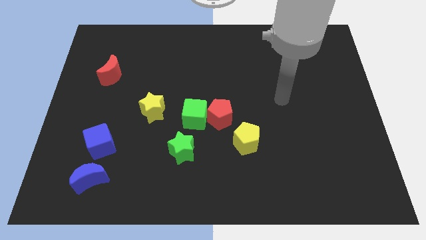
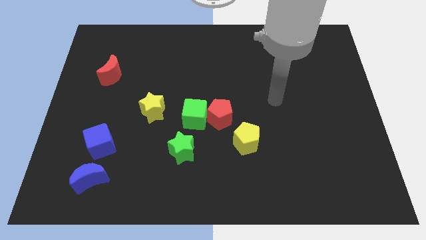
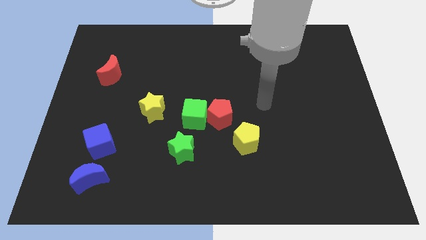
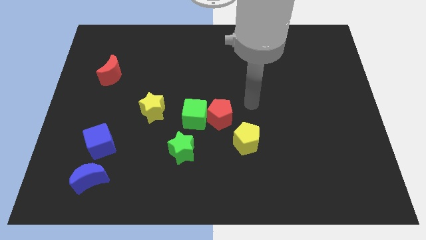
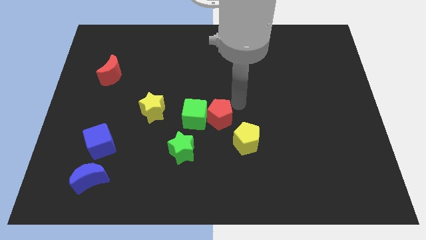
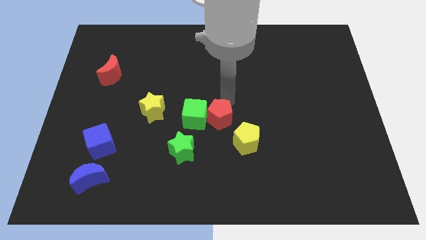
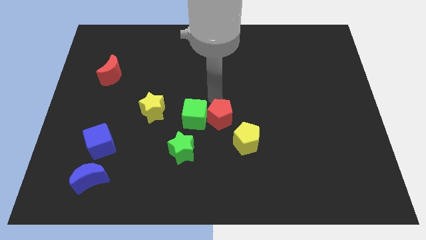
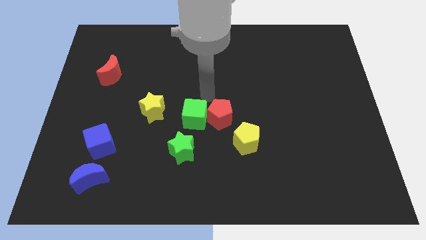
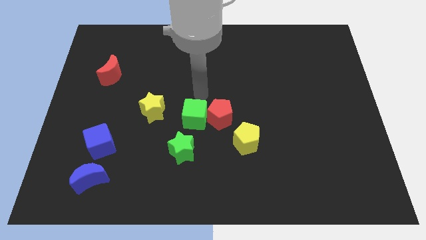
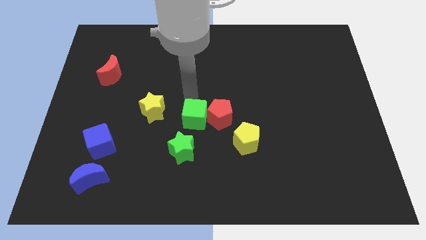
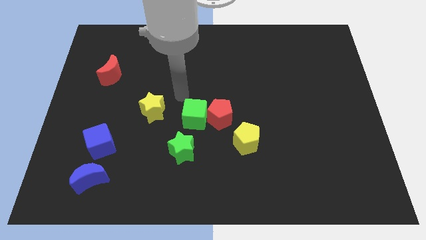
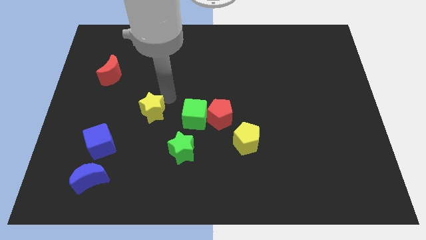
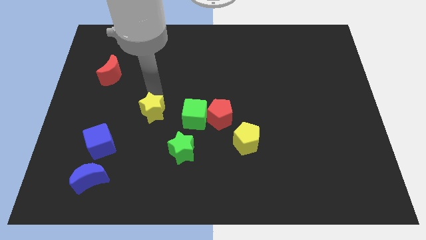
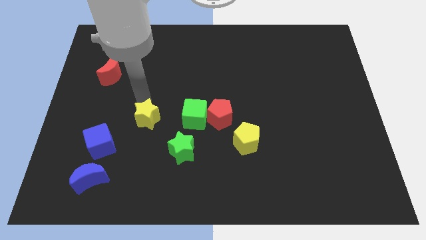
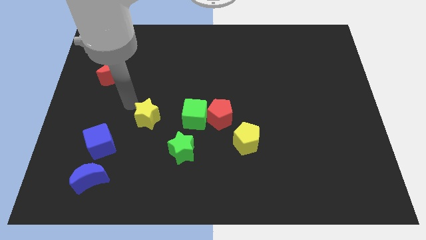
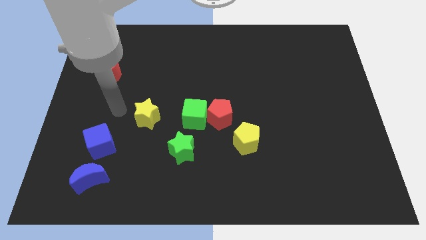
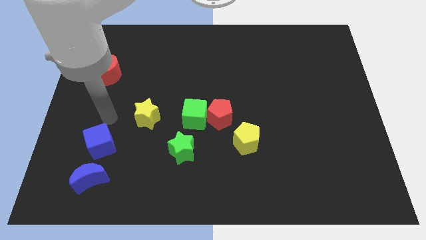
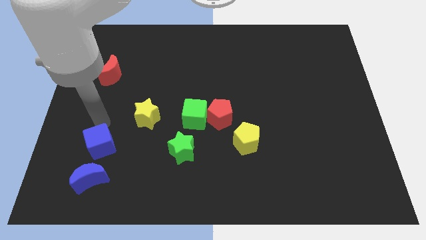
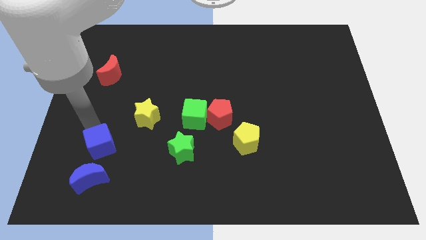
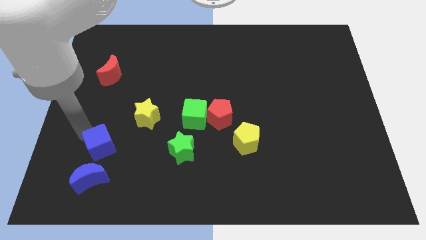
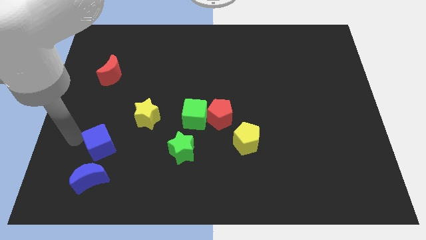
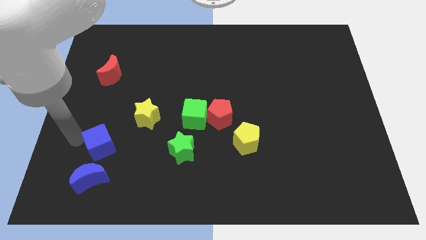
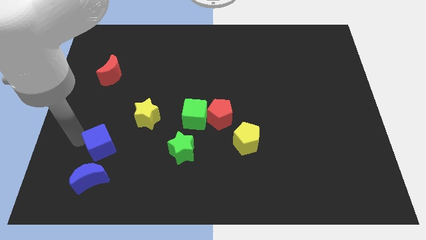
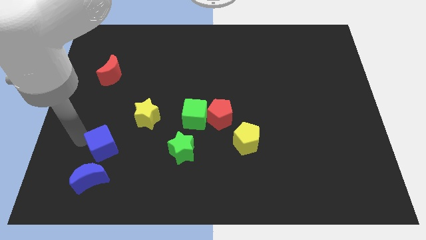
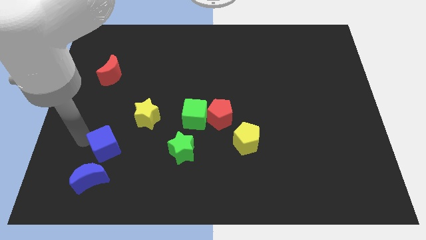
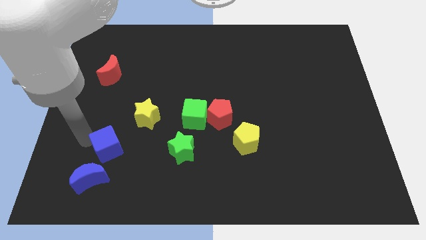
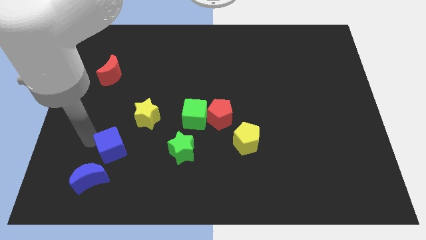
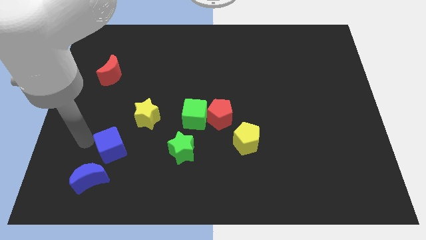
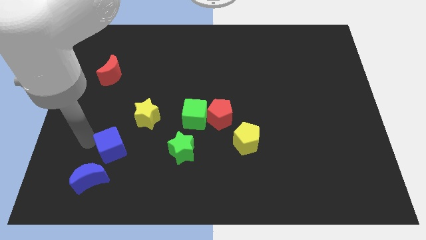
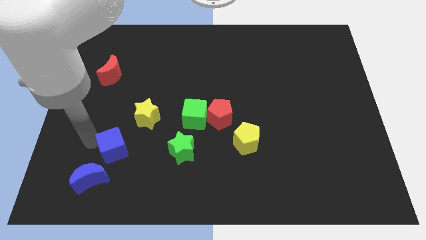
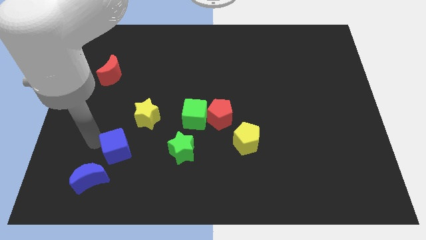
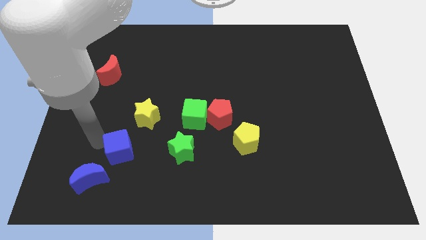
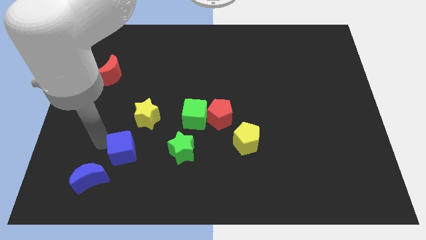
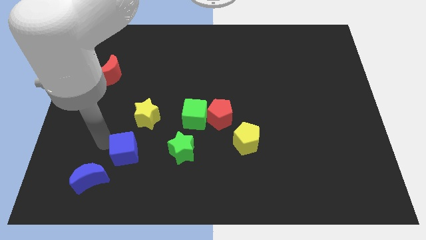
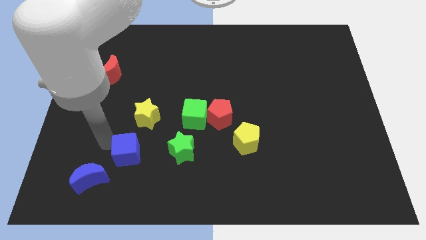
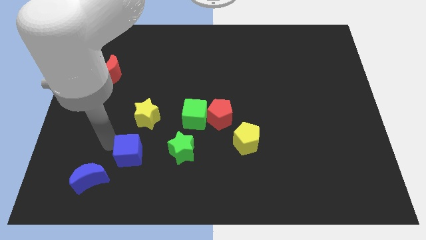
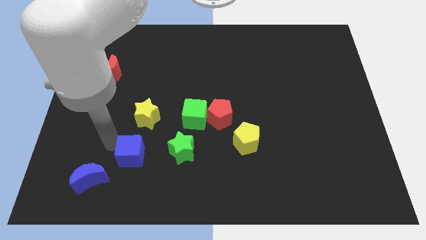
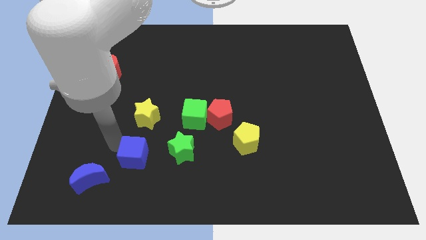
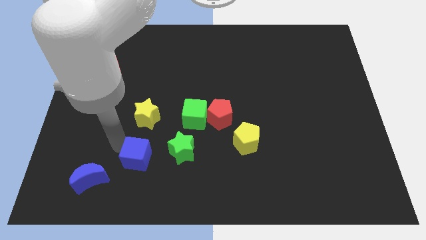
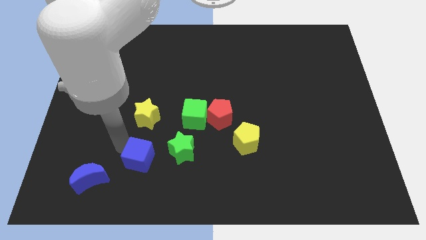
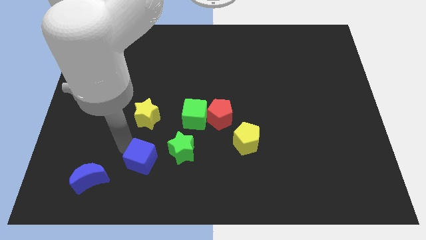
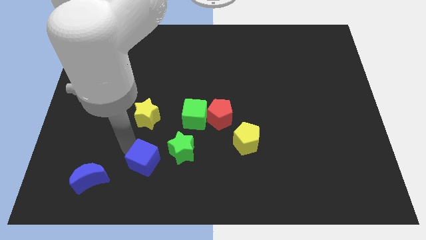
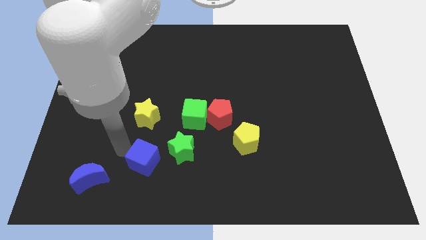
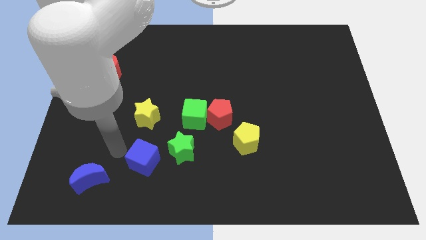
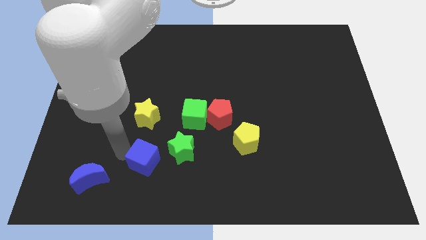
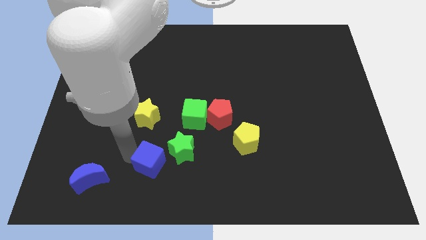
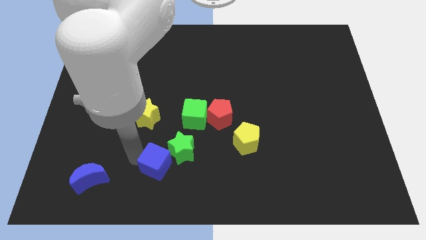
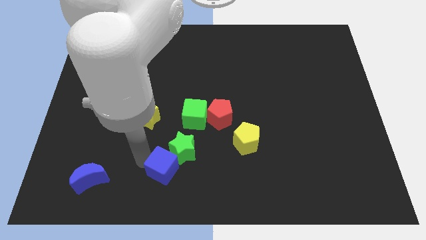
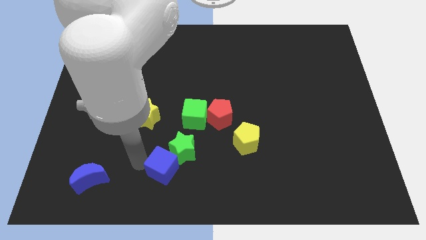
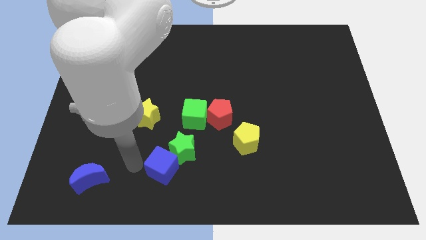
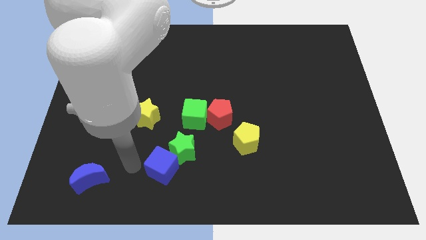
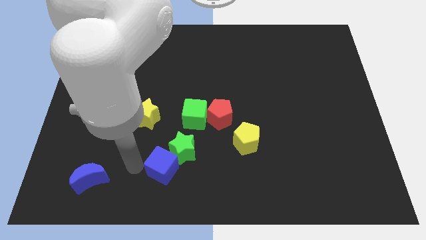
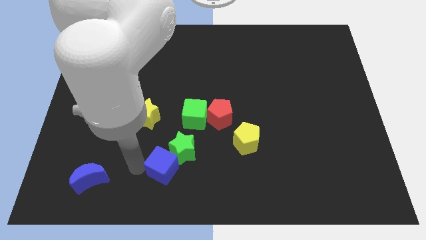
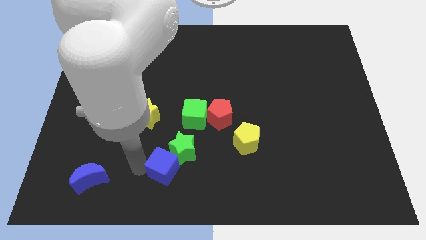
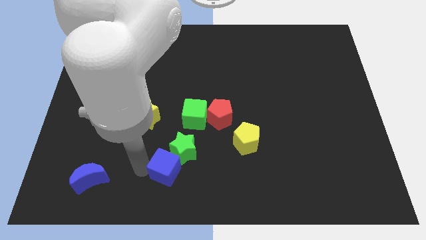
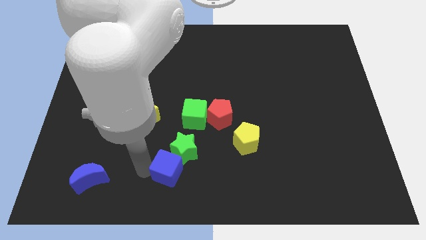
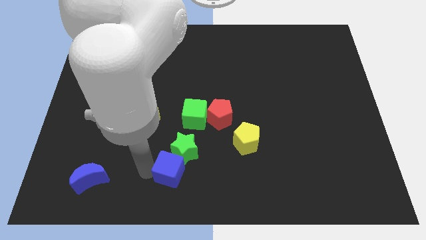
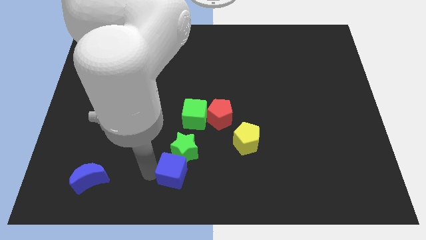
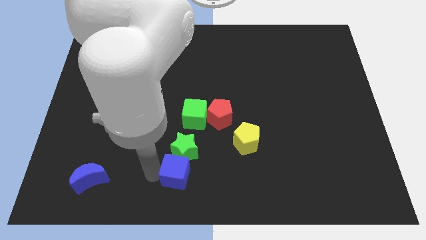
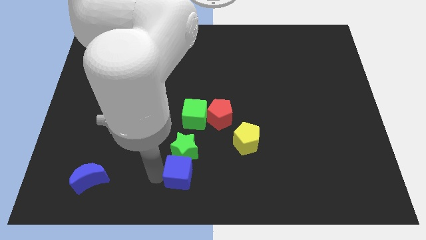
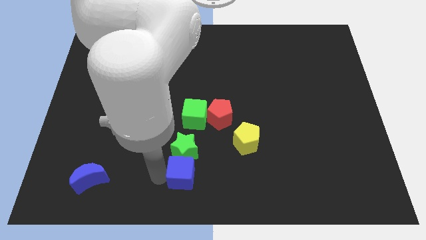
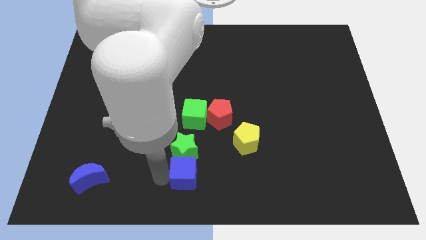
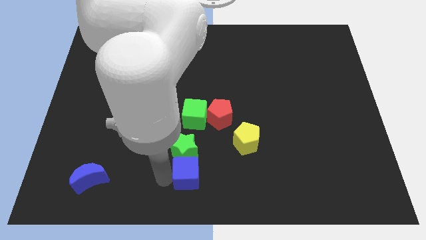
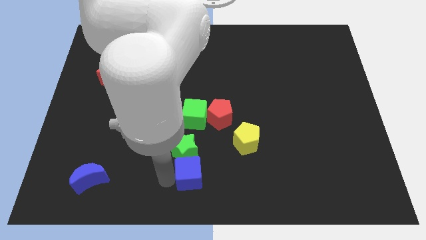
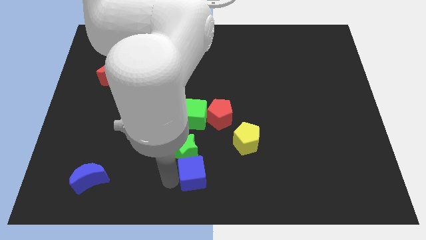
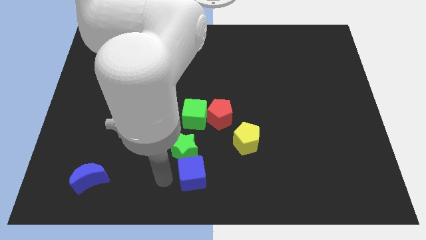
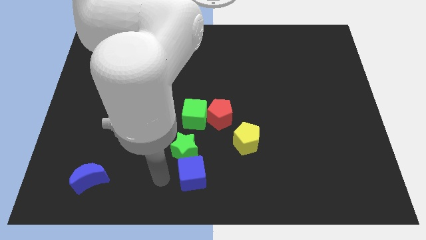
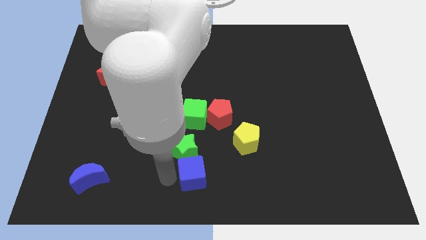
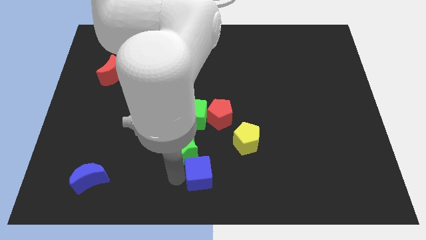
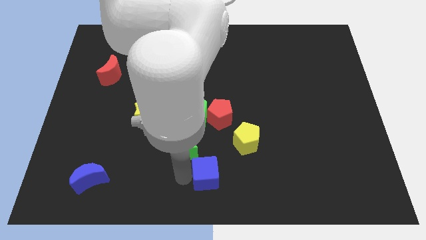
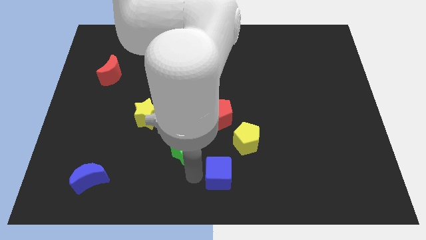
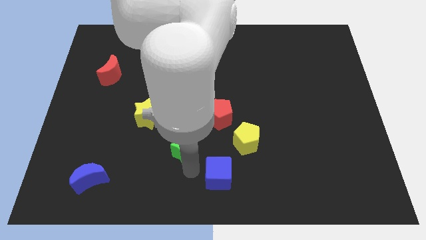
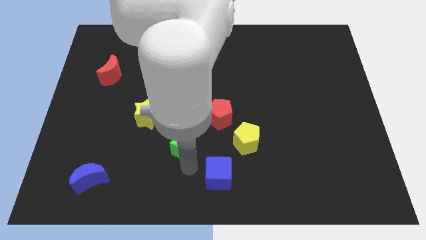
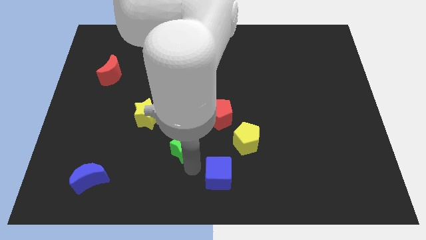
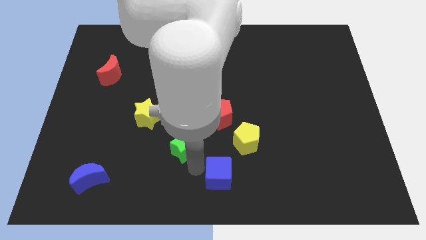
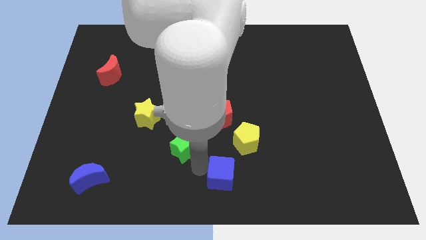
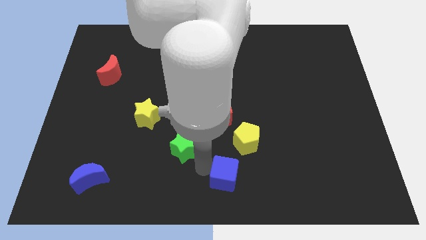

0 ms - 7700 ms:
put the blue cube below the yellow pentagon
